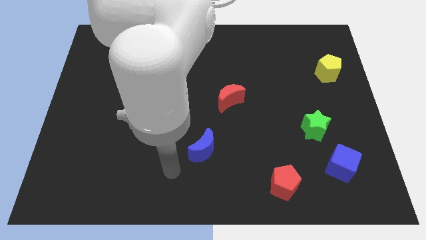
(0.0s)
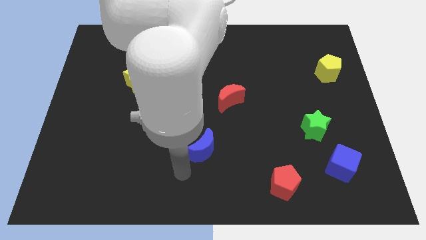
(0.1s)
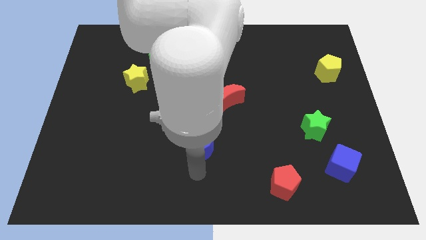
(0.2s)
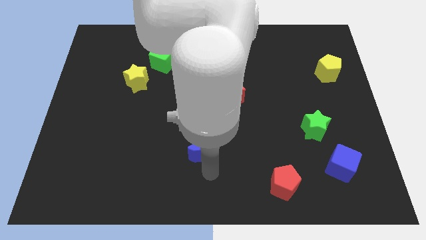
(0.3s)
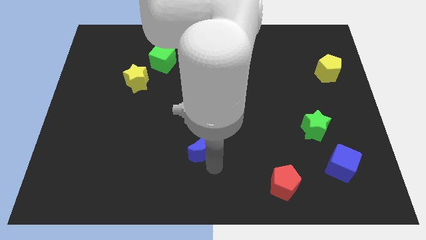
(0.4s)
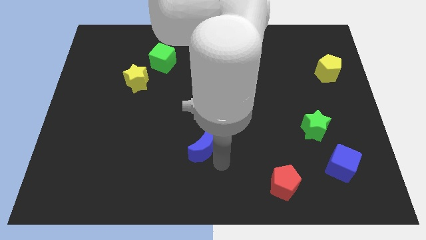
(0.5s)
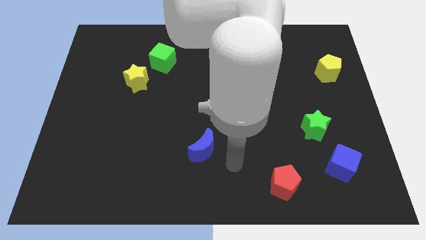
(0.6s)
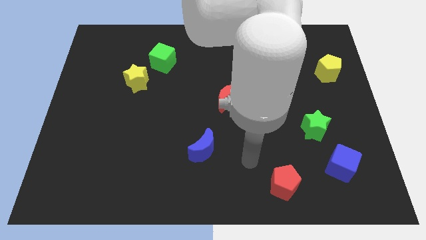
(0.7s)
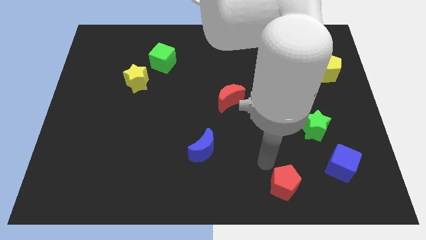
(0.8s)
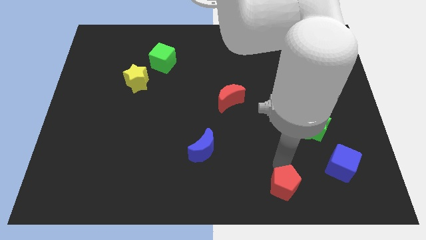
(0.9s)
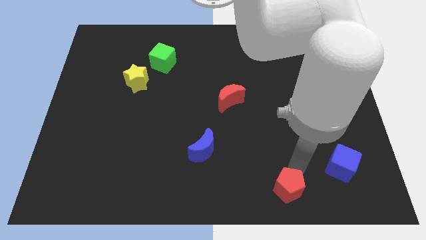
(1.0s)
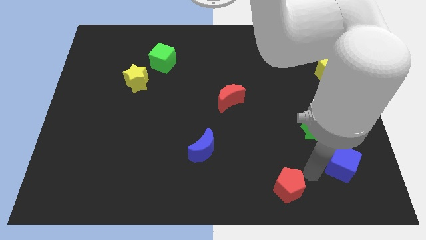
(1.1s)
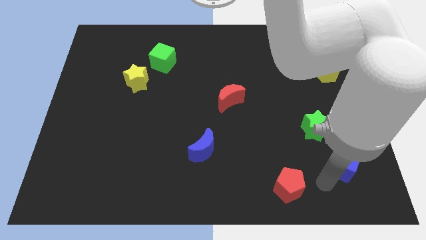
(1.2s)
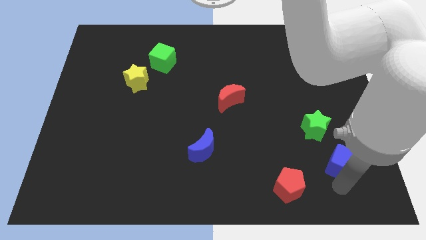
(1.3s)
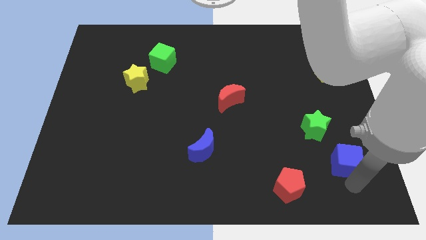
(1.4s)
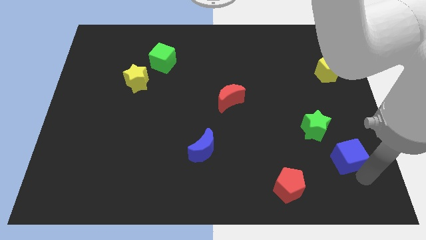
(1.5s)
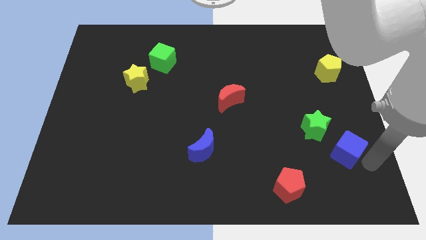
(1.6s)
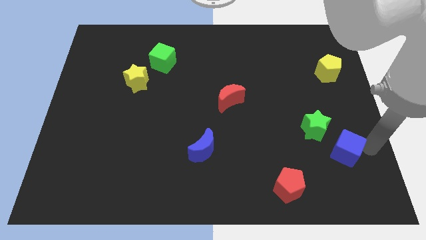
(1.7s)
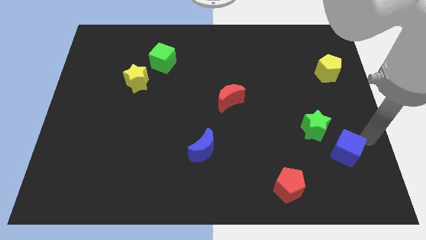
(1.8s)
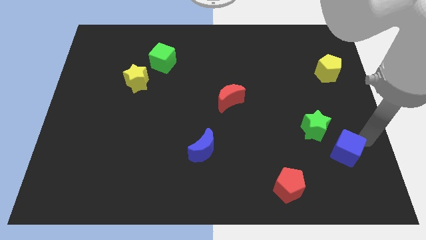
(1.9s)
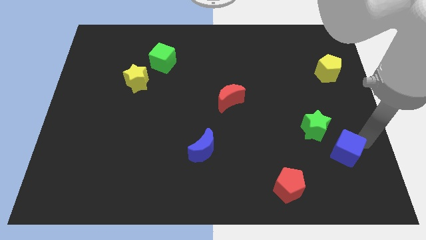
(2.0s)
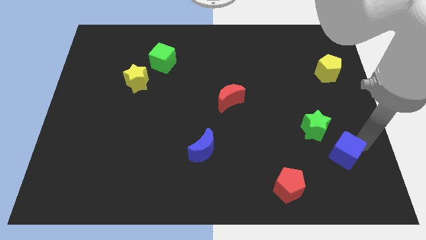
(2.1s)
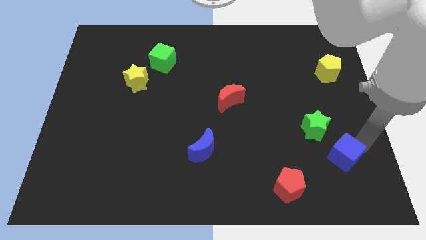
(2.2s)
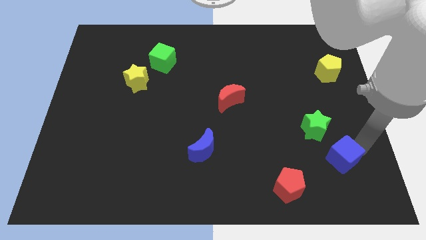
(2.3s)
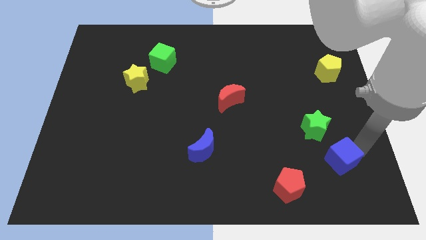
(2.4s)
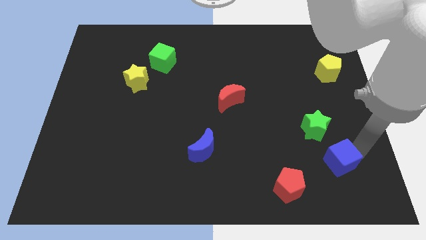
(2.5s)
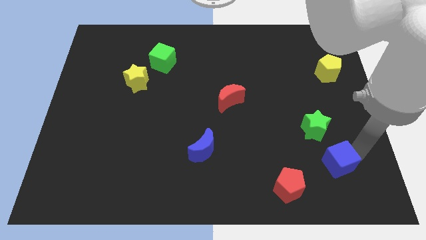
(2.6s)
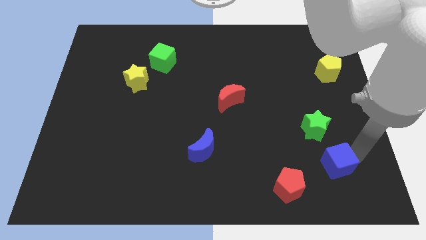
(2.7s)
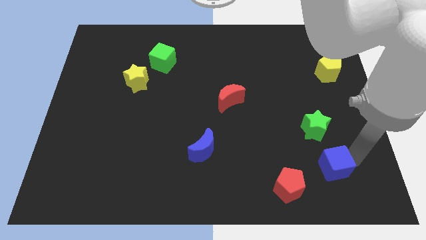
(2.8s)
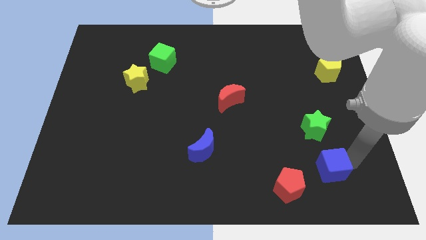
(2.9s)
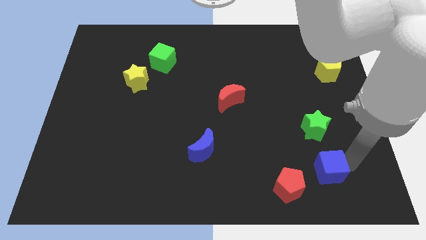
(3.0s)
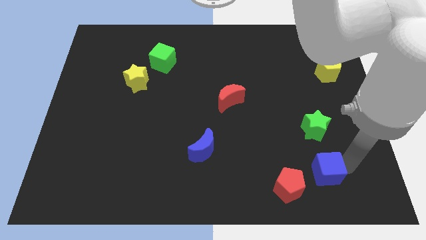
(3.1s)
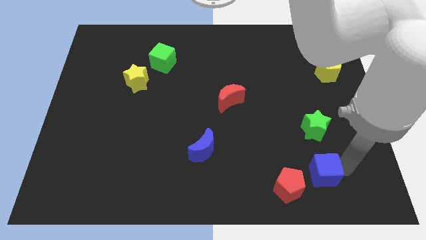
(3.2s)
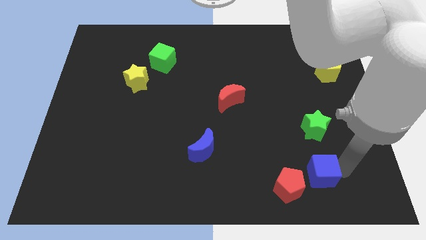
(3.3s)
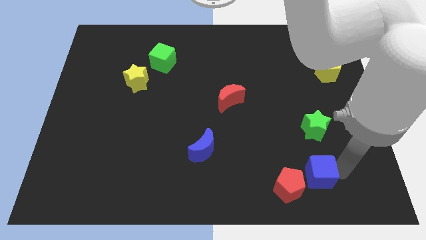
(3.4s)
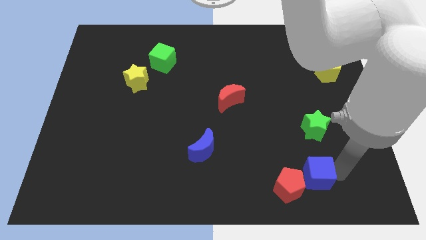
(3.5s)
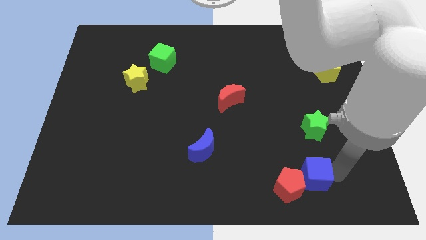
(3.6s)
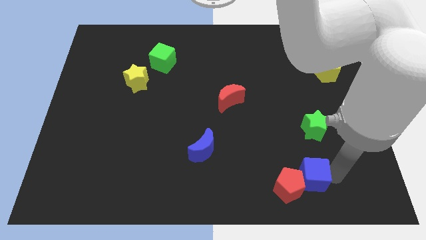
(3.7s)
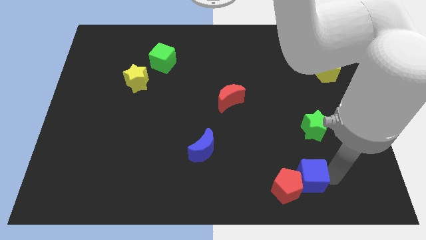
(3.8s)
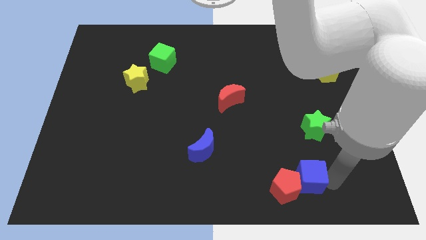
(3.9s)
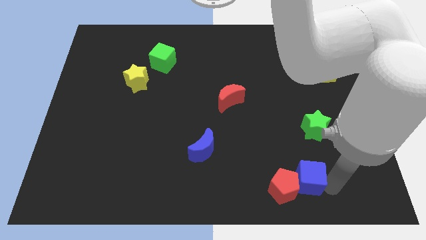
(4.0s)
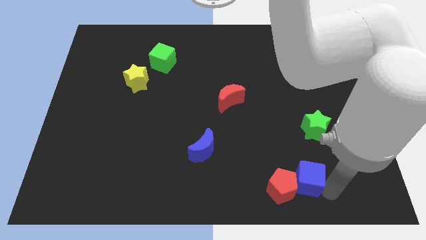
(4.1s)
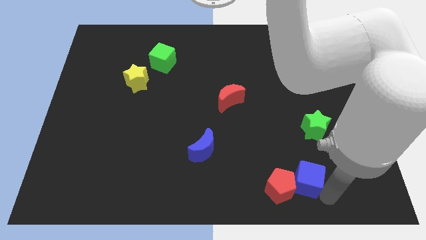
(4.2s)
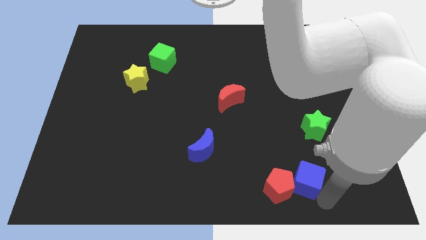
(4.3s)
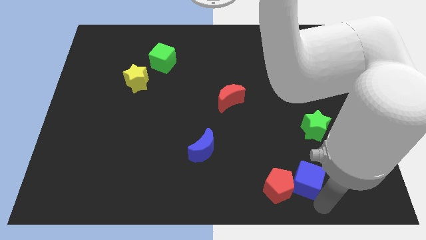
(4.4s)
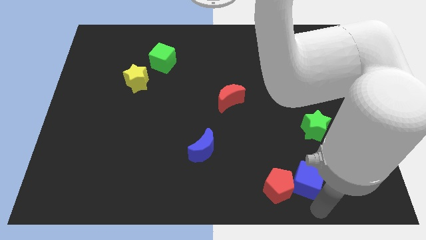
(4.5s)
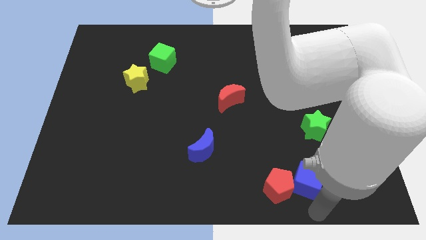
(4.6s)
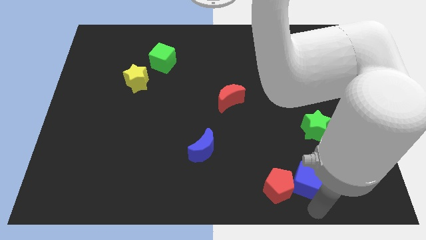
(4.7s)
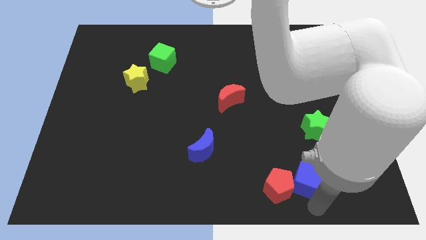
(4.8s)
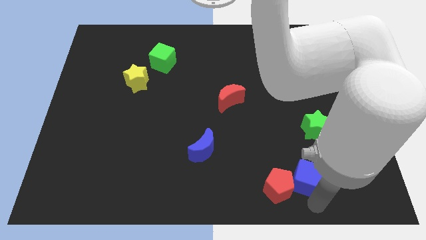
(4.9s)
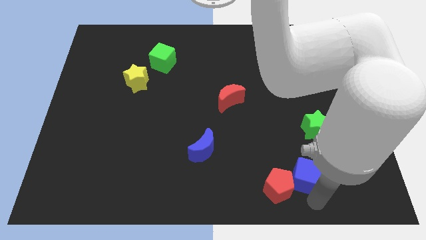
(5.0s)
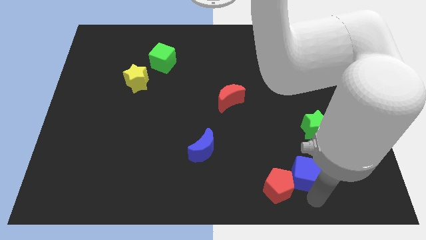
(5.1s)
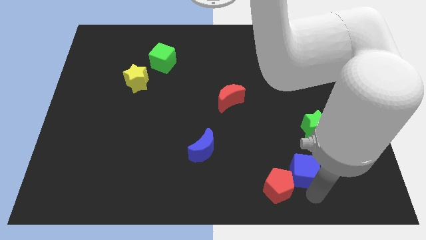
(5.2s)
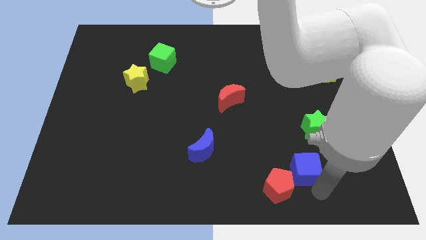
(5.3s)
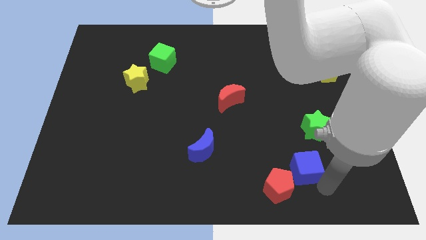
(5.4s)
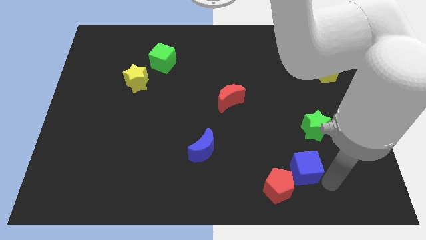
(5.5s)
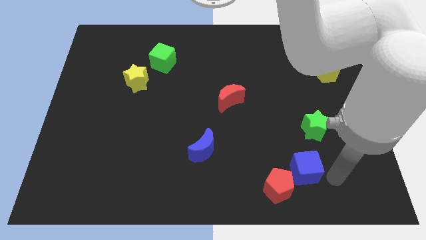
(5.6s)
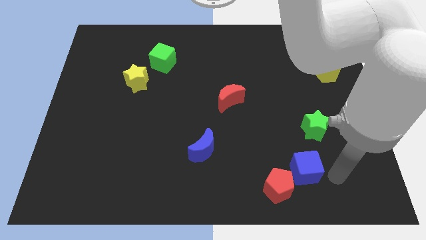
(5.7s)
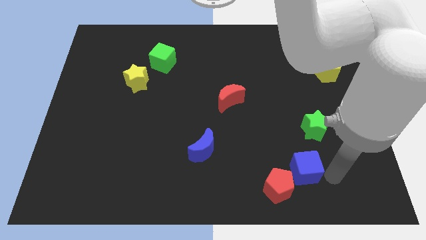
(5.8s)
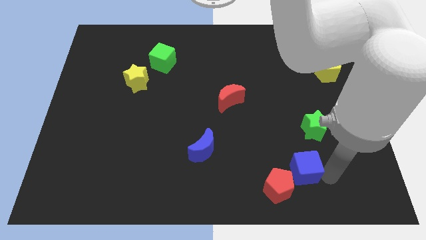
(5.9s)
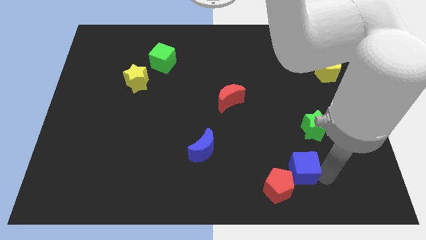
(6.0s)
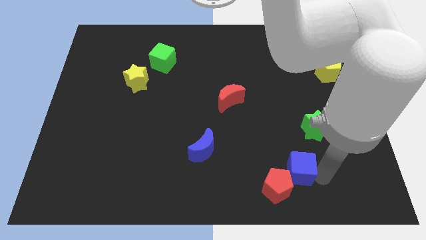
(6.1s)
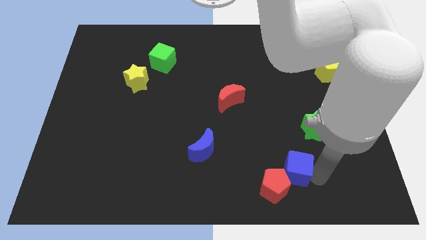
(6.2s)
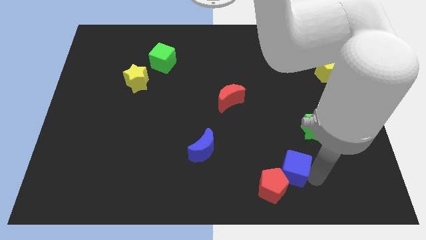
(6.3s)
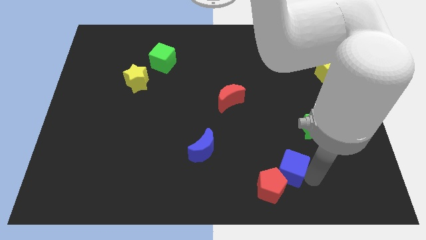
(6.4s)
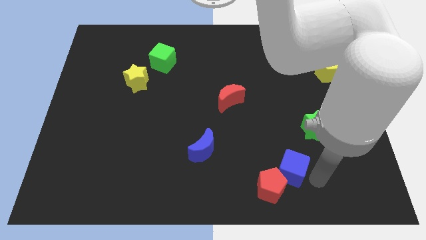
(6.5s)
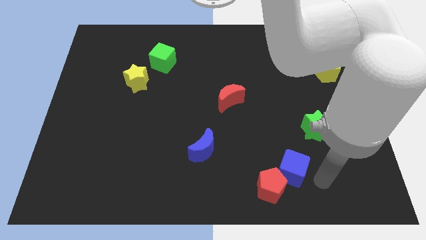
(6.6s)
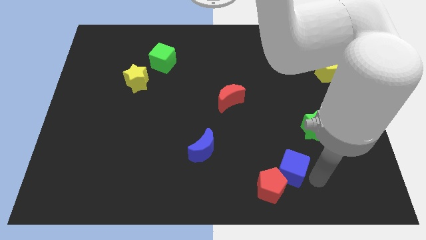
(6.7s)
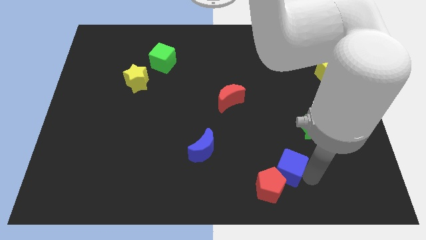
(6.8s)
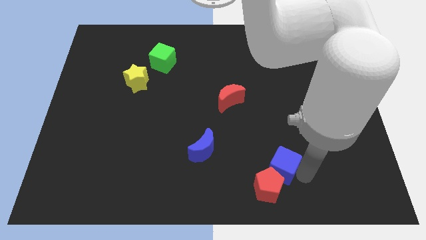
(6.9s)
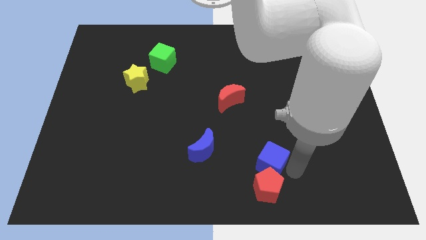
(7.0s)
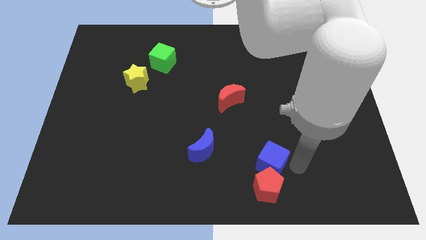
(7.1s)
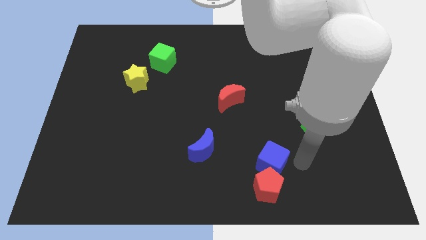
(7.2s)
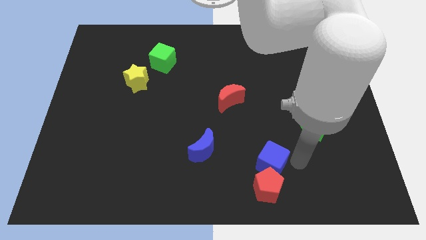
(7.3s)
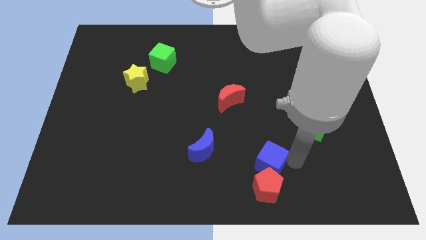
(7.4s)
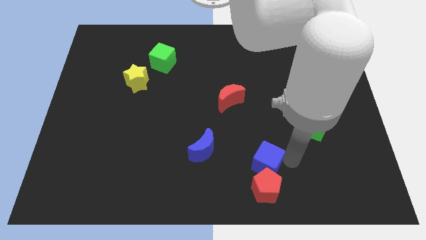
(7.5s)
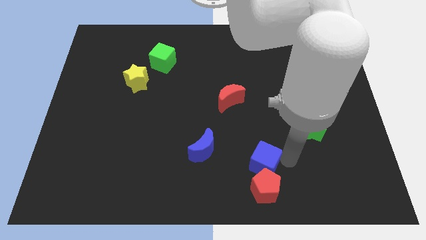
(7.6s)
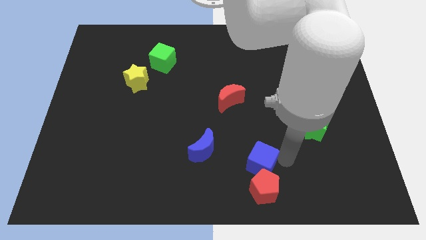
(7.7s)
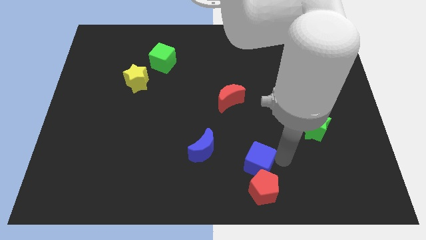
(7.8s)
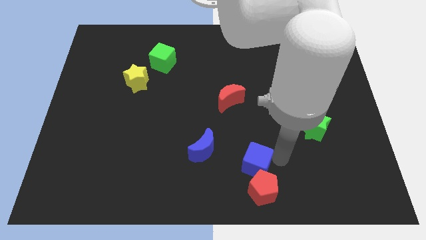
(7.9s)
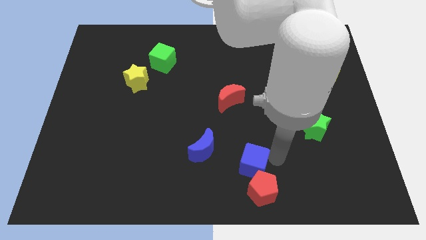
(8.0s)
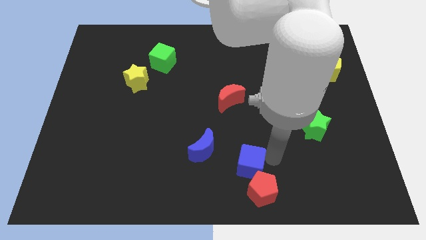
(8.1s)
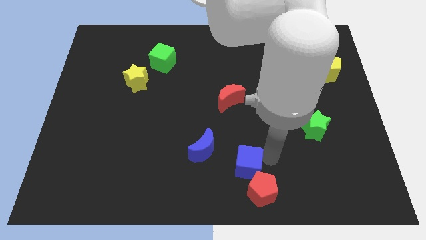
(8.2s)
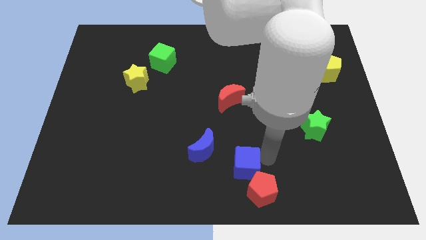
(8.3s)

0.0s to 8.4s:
slide the blue cube to the left
